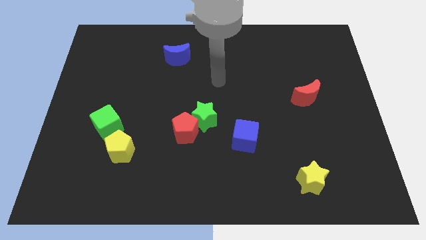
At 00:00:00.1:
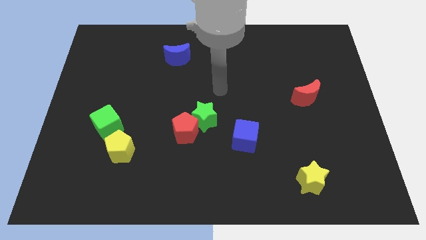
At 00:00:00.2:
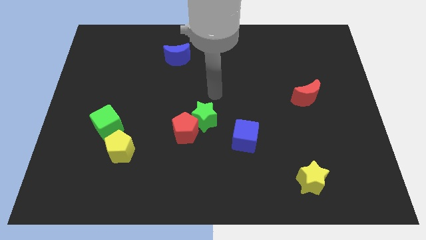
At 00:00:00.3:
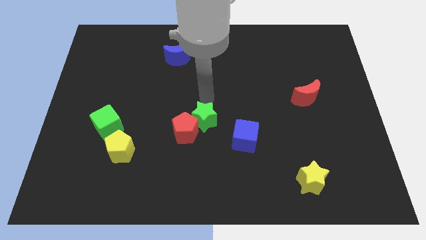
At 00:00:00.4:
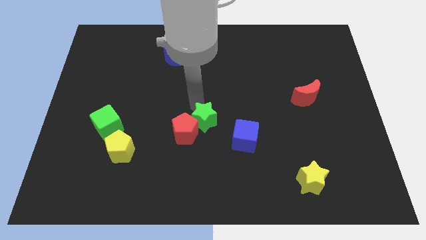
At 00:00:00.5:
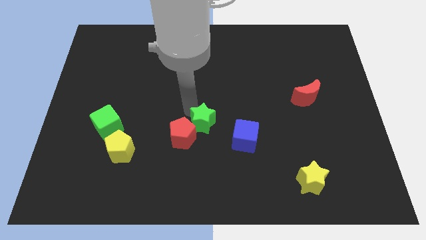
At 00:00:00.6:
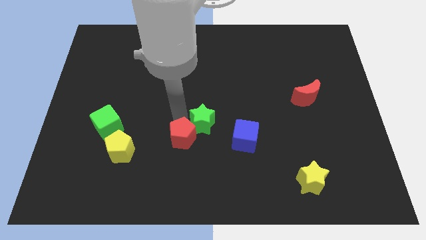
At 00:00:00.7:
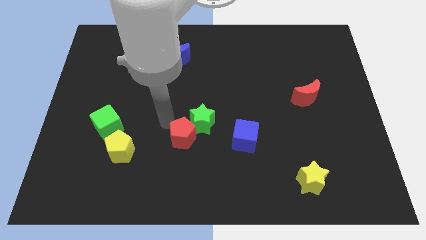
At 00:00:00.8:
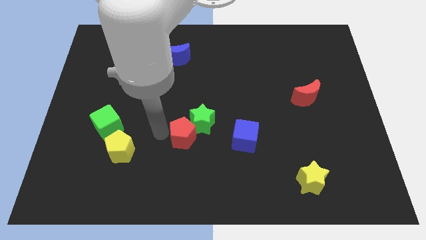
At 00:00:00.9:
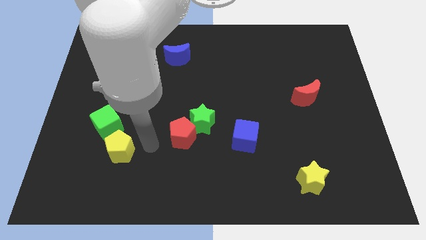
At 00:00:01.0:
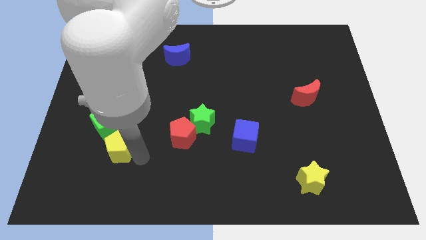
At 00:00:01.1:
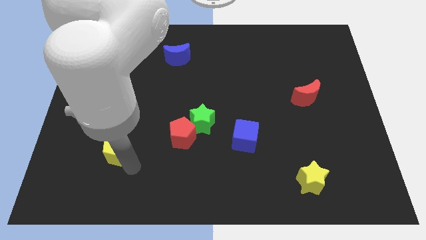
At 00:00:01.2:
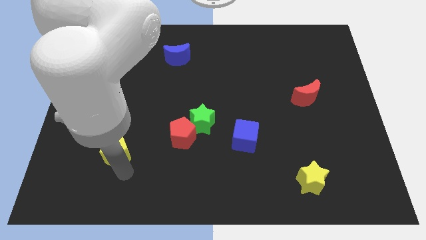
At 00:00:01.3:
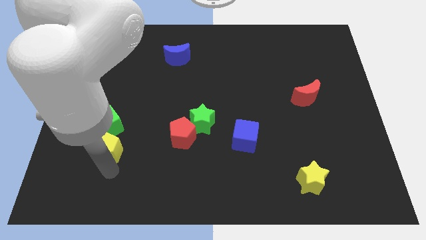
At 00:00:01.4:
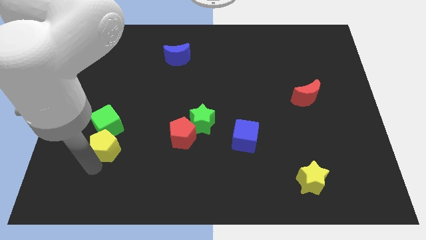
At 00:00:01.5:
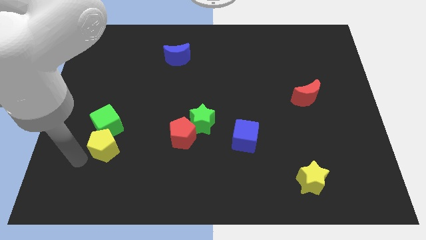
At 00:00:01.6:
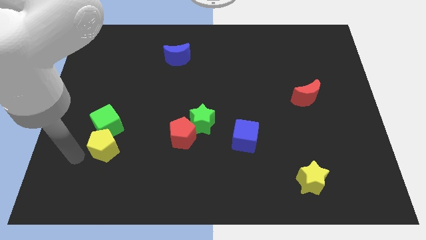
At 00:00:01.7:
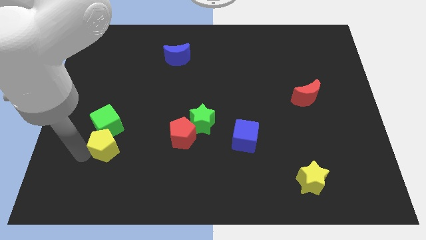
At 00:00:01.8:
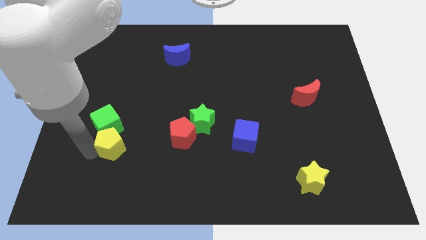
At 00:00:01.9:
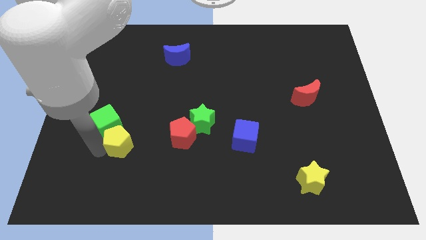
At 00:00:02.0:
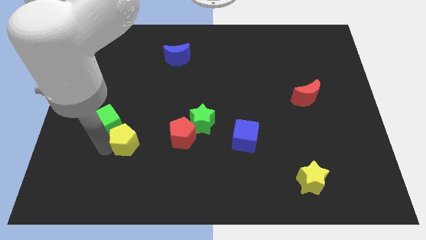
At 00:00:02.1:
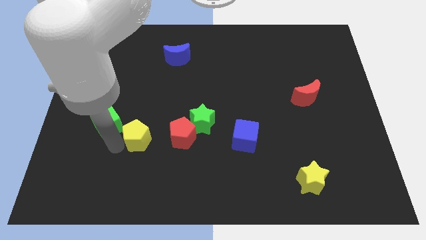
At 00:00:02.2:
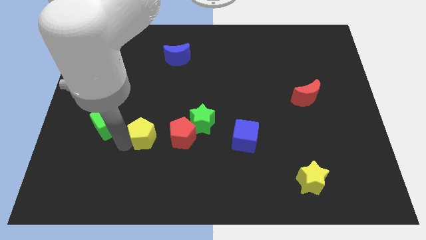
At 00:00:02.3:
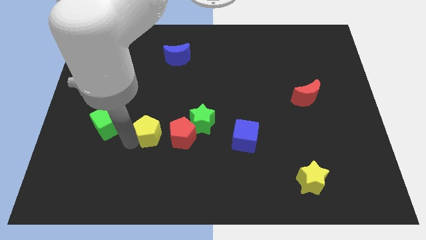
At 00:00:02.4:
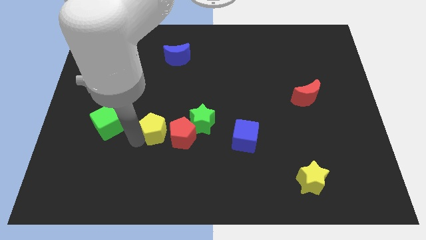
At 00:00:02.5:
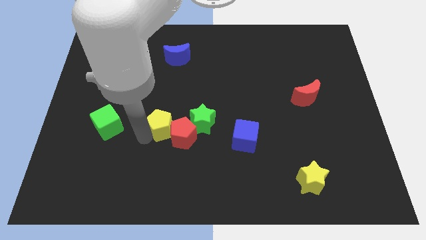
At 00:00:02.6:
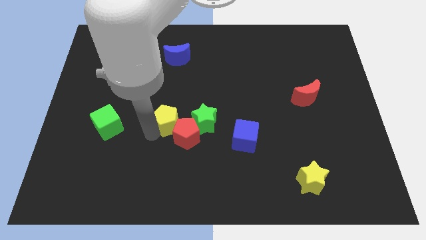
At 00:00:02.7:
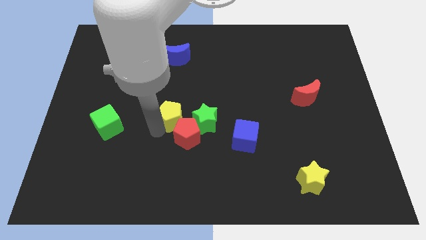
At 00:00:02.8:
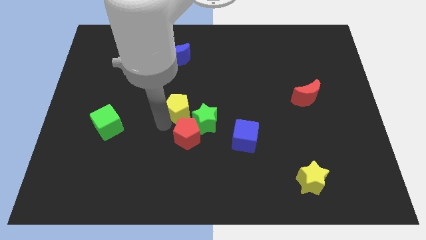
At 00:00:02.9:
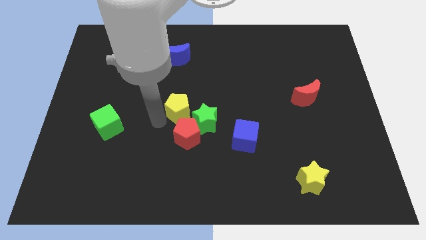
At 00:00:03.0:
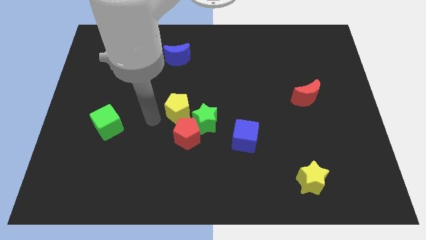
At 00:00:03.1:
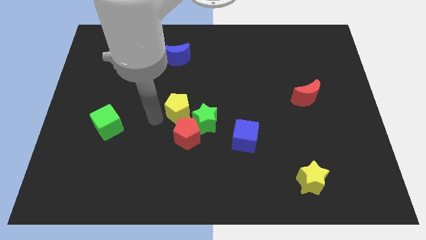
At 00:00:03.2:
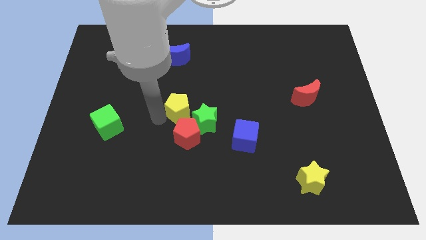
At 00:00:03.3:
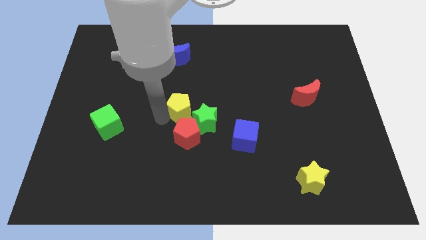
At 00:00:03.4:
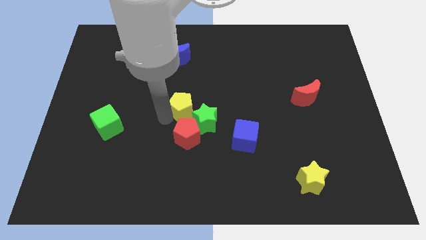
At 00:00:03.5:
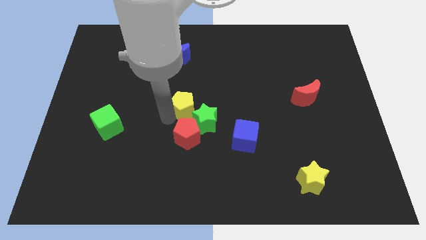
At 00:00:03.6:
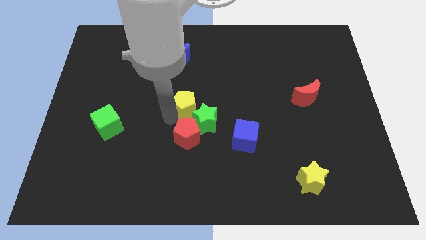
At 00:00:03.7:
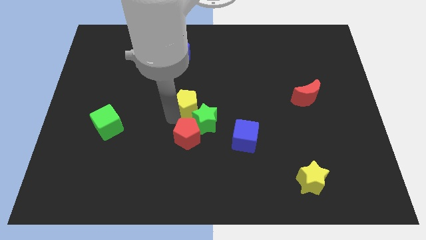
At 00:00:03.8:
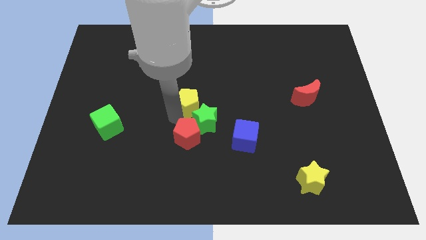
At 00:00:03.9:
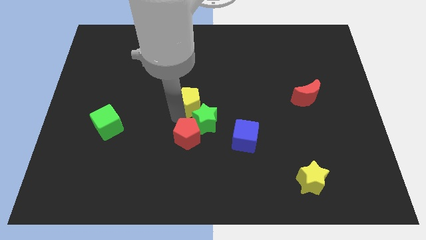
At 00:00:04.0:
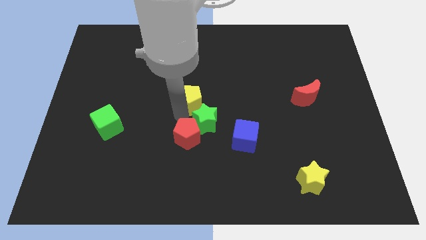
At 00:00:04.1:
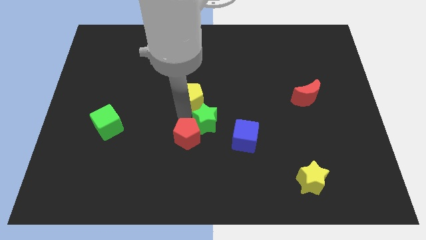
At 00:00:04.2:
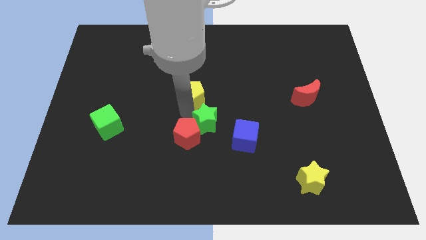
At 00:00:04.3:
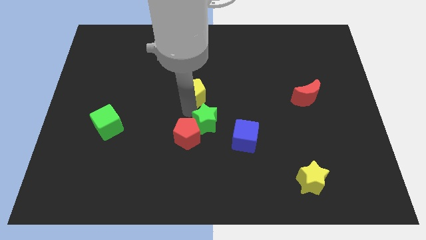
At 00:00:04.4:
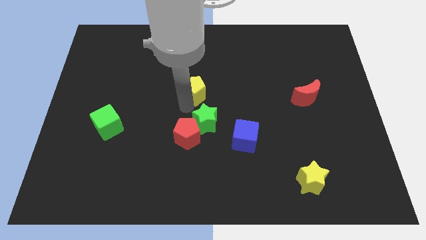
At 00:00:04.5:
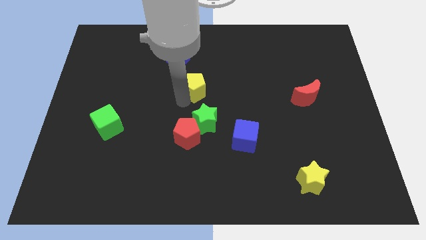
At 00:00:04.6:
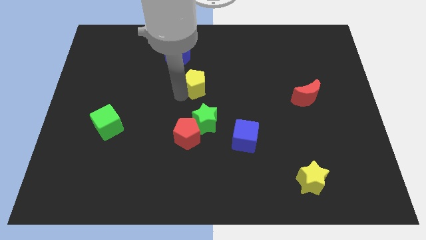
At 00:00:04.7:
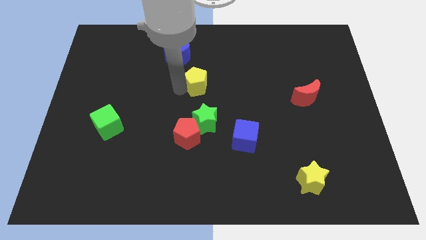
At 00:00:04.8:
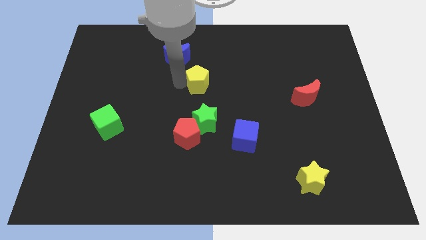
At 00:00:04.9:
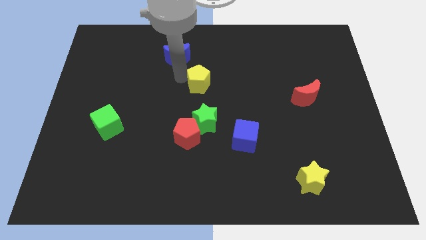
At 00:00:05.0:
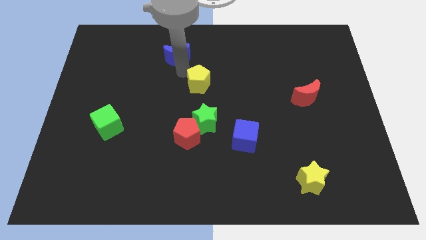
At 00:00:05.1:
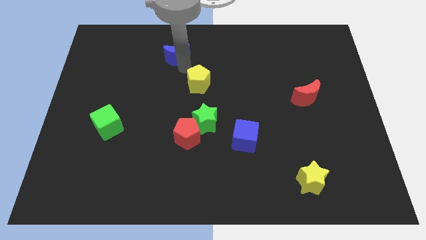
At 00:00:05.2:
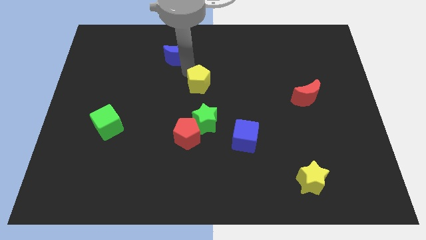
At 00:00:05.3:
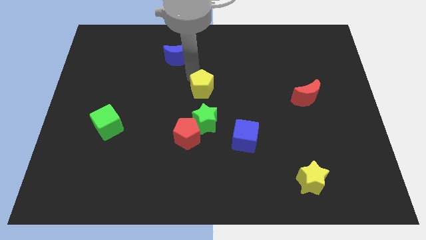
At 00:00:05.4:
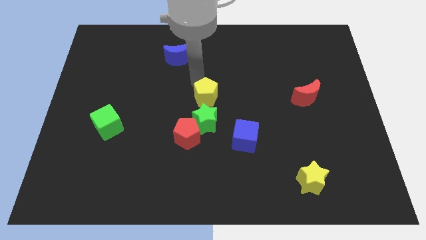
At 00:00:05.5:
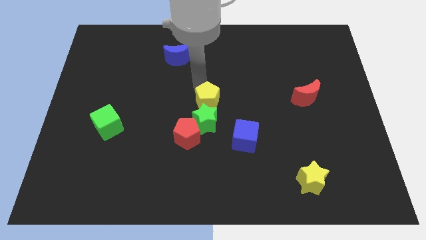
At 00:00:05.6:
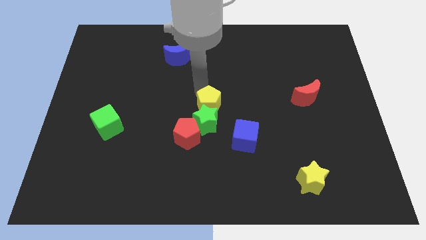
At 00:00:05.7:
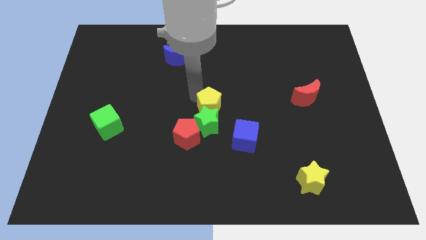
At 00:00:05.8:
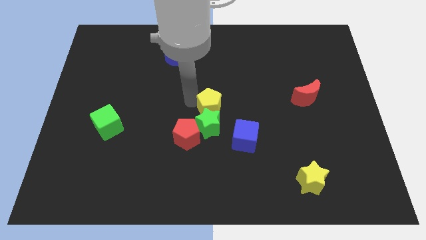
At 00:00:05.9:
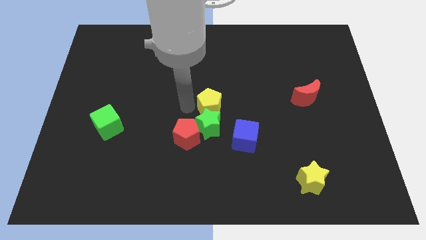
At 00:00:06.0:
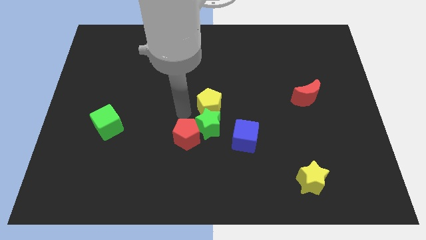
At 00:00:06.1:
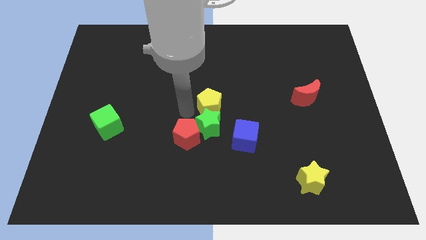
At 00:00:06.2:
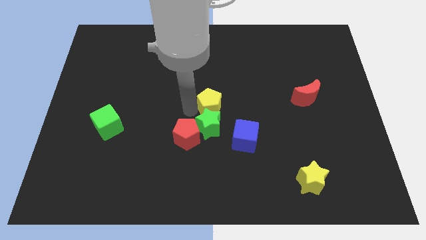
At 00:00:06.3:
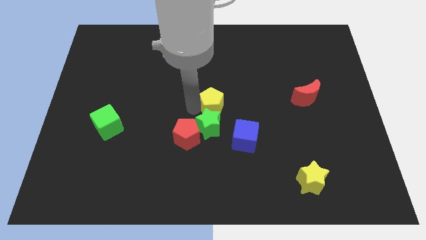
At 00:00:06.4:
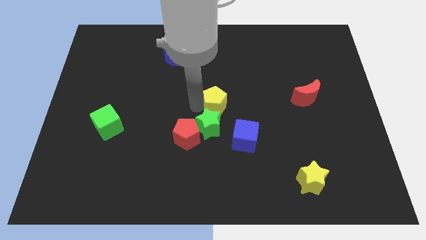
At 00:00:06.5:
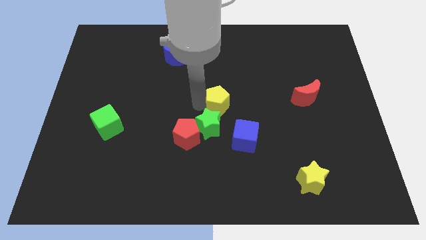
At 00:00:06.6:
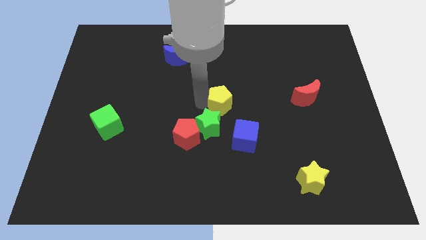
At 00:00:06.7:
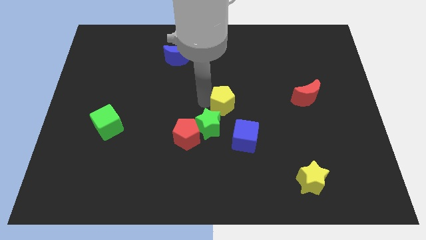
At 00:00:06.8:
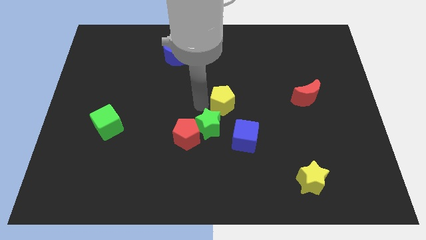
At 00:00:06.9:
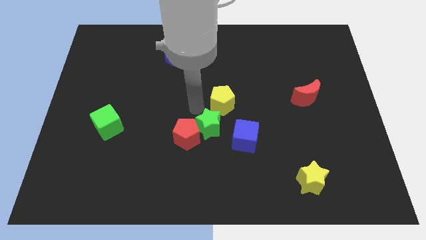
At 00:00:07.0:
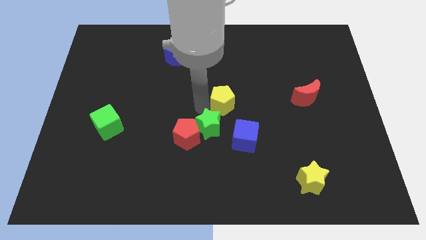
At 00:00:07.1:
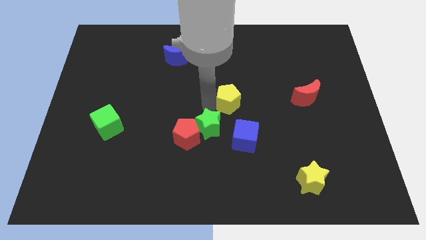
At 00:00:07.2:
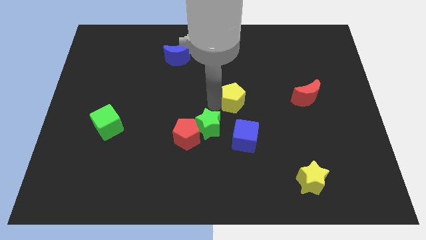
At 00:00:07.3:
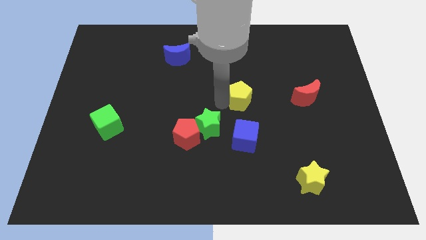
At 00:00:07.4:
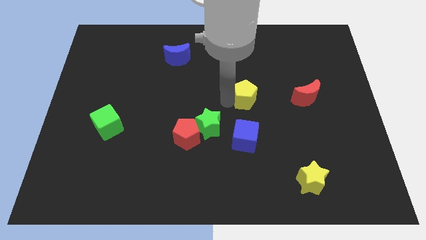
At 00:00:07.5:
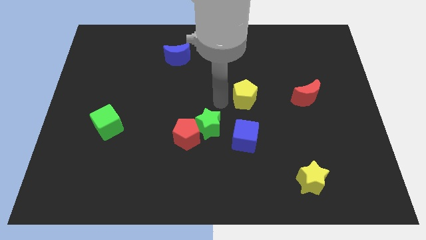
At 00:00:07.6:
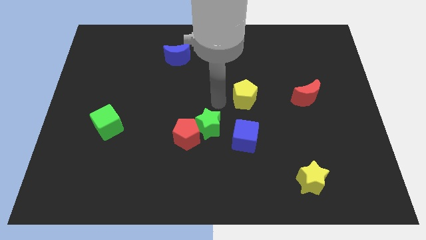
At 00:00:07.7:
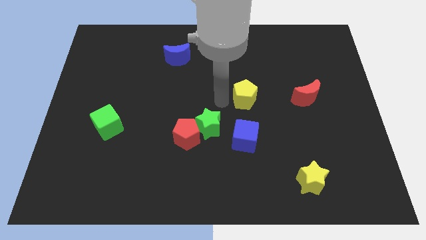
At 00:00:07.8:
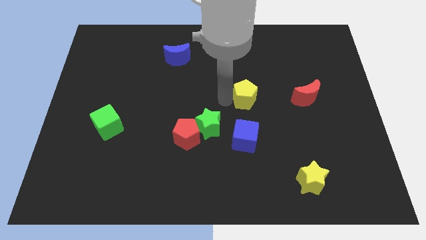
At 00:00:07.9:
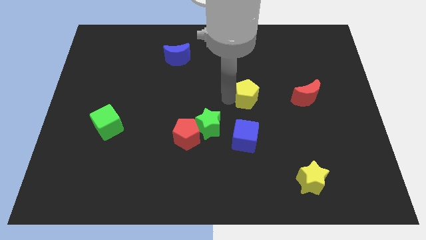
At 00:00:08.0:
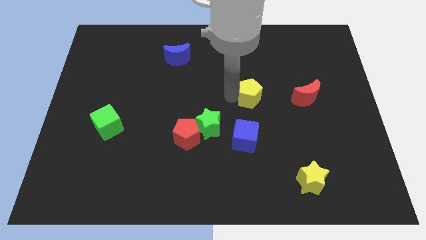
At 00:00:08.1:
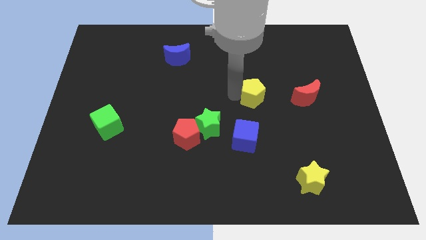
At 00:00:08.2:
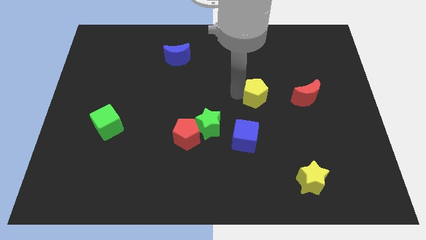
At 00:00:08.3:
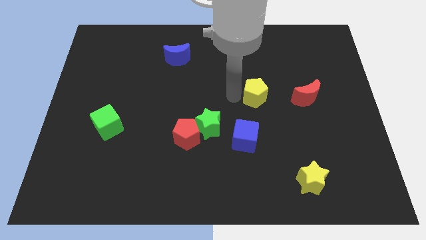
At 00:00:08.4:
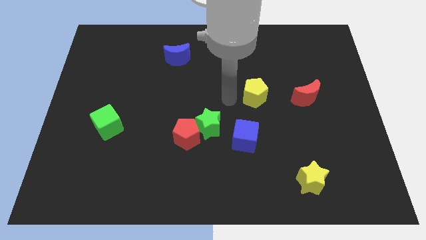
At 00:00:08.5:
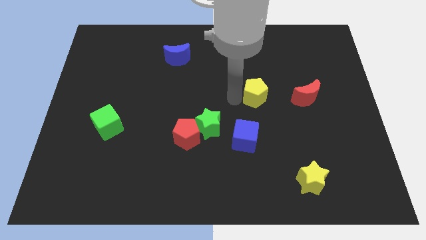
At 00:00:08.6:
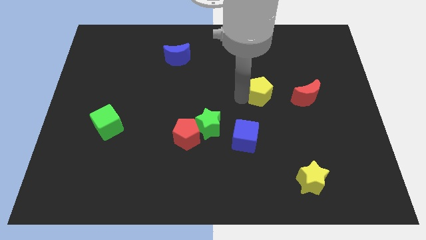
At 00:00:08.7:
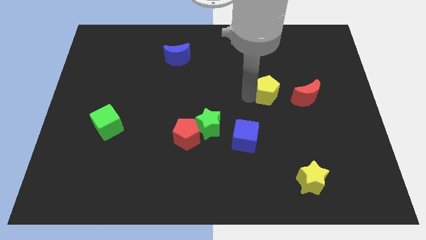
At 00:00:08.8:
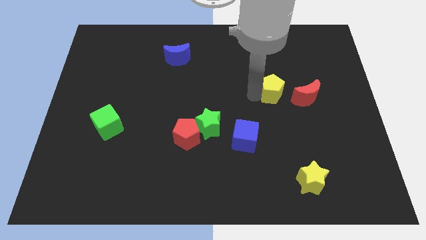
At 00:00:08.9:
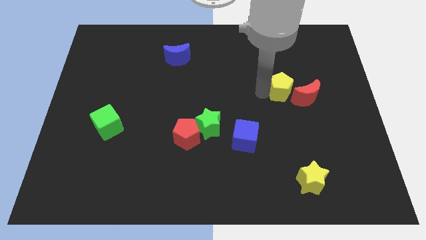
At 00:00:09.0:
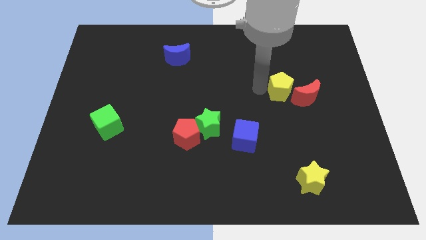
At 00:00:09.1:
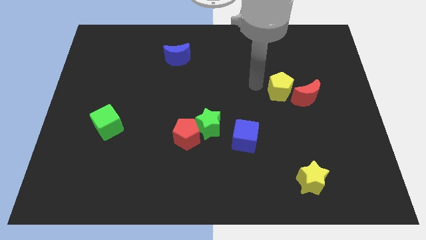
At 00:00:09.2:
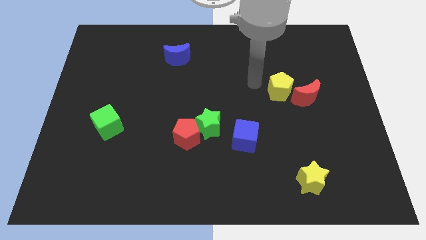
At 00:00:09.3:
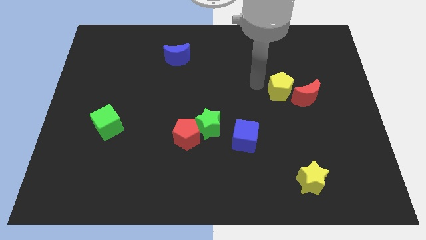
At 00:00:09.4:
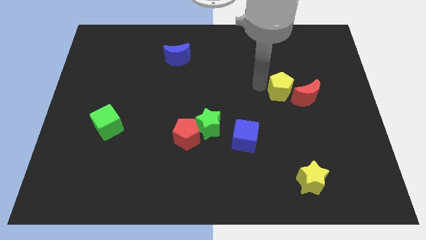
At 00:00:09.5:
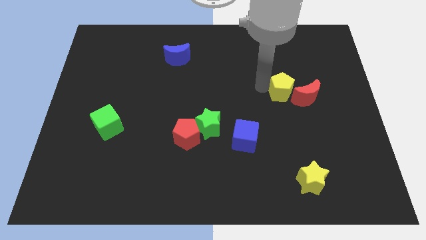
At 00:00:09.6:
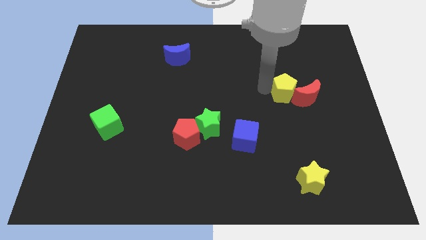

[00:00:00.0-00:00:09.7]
move the yellow pentagon close to the red moon
